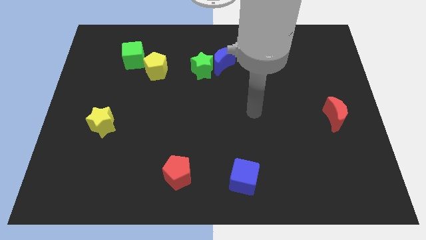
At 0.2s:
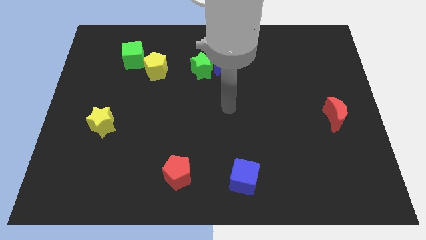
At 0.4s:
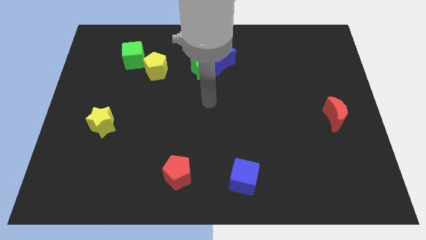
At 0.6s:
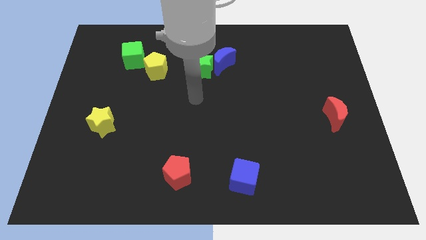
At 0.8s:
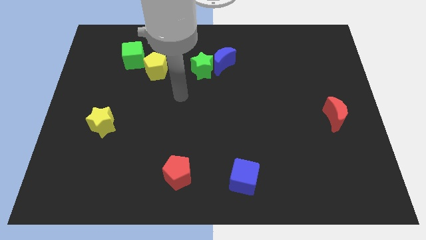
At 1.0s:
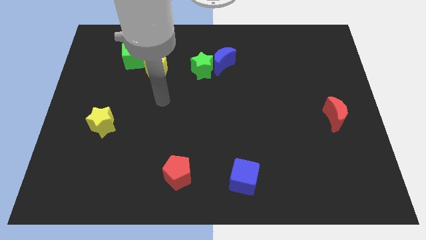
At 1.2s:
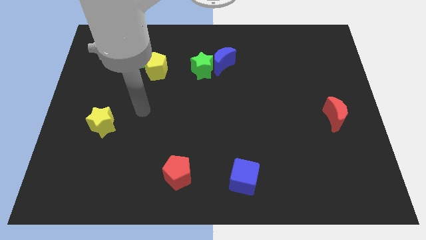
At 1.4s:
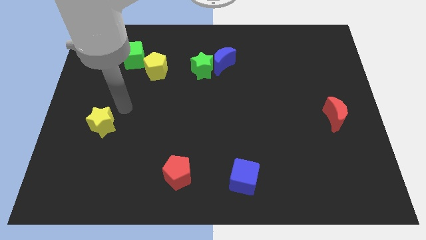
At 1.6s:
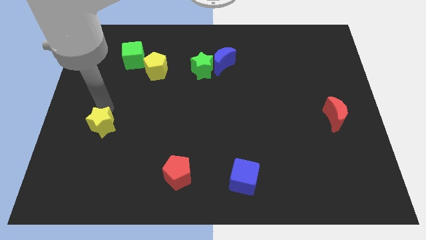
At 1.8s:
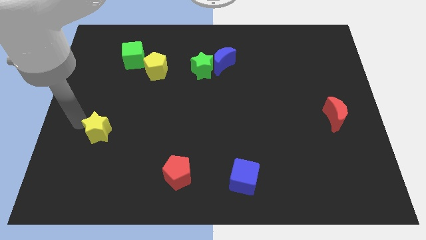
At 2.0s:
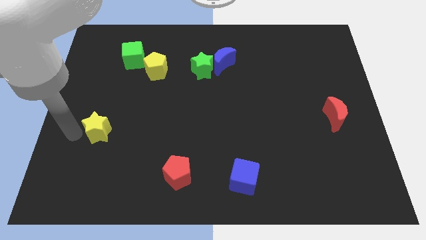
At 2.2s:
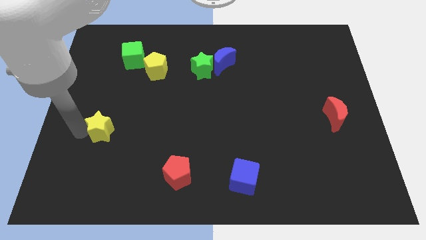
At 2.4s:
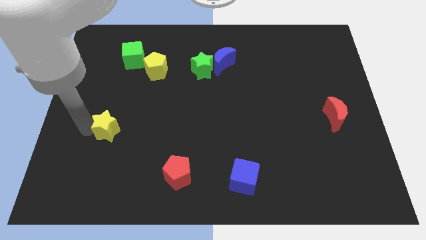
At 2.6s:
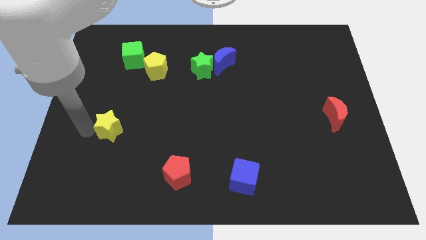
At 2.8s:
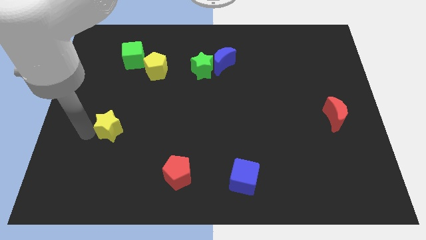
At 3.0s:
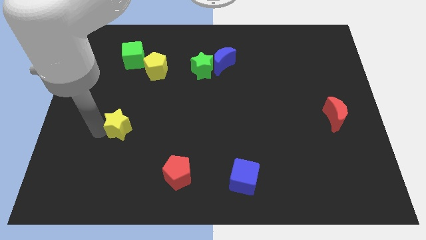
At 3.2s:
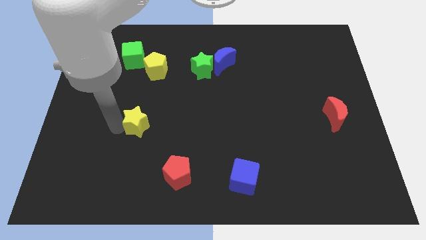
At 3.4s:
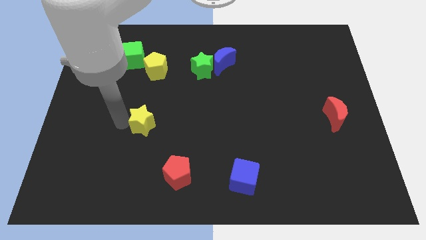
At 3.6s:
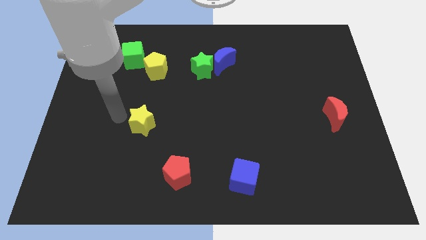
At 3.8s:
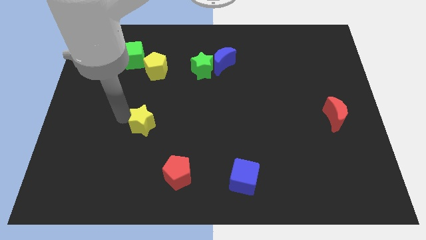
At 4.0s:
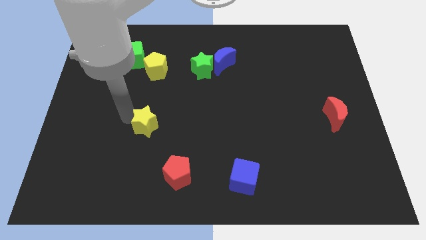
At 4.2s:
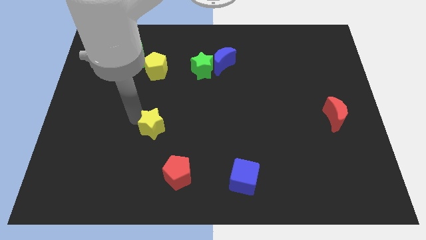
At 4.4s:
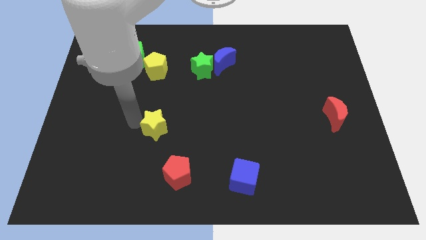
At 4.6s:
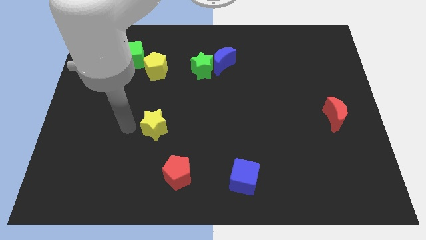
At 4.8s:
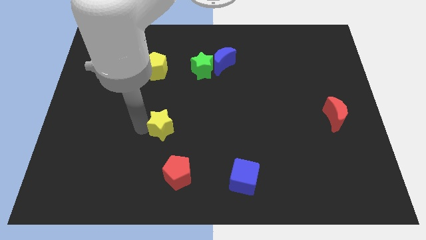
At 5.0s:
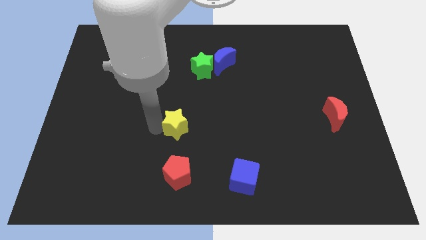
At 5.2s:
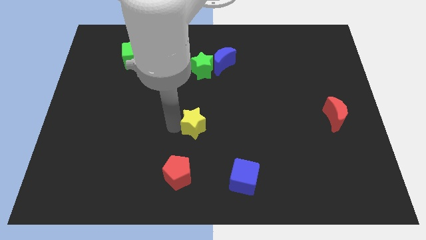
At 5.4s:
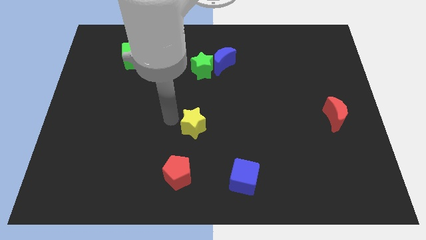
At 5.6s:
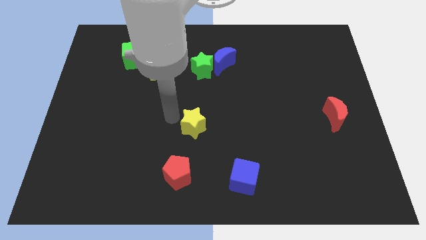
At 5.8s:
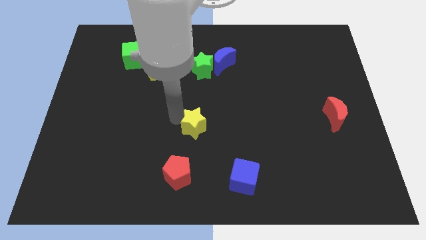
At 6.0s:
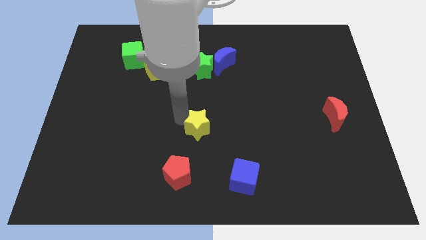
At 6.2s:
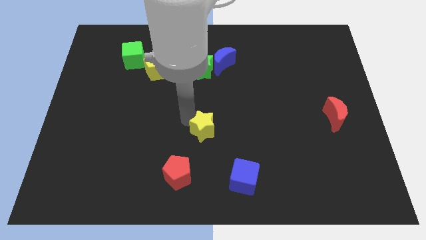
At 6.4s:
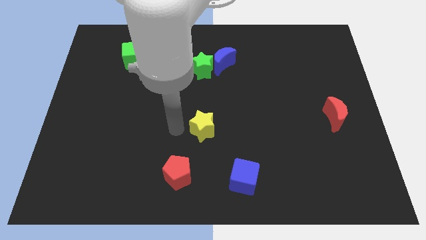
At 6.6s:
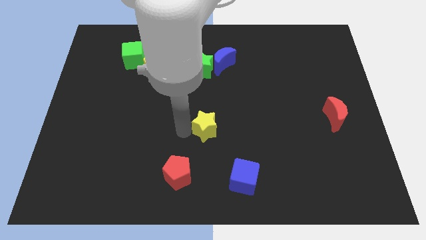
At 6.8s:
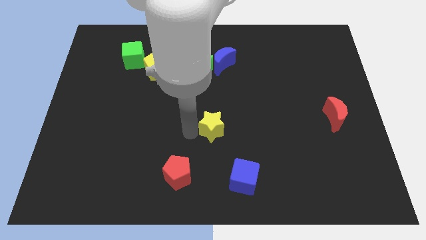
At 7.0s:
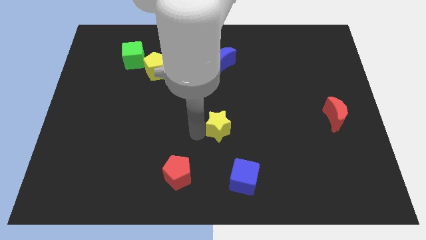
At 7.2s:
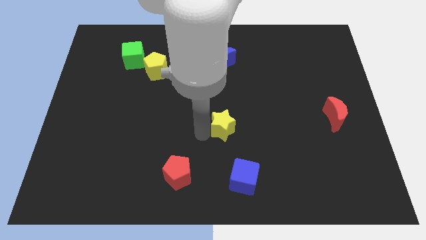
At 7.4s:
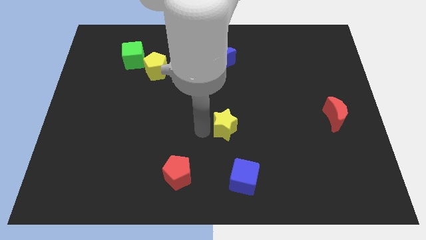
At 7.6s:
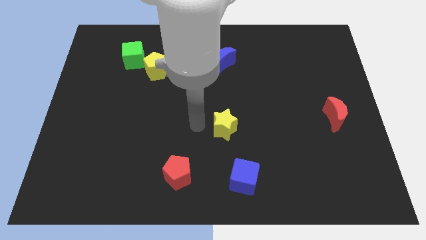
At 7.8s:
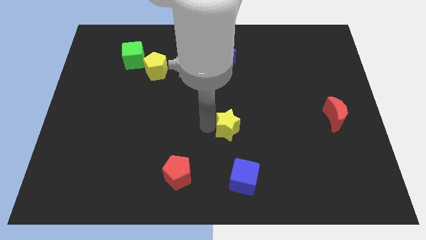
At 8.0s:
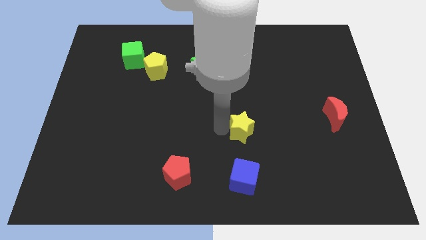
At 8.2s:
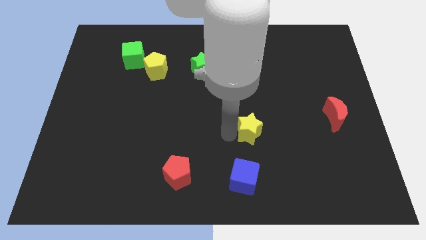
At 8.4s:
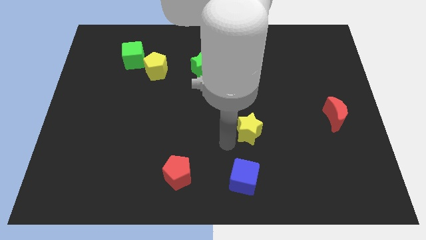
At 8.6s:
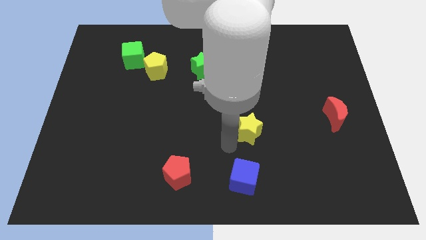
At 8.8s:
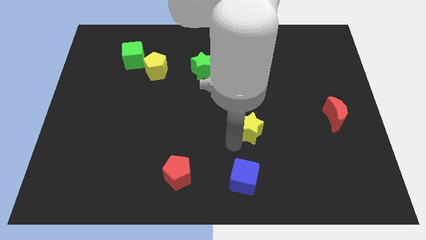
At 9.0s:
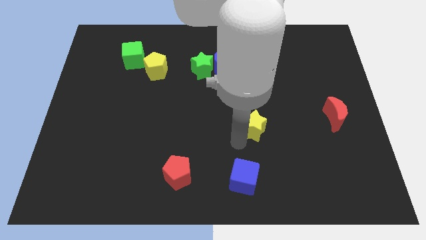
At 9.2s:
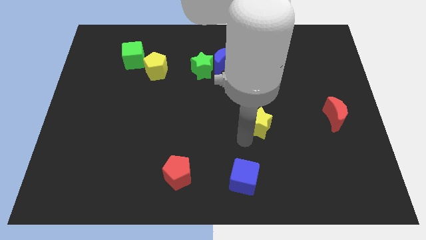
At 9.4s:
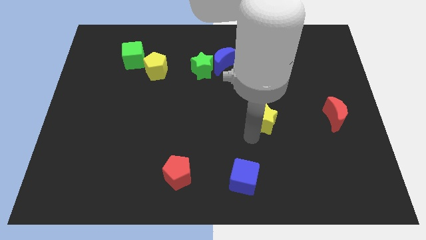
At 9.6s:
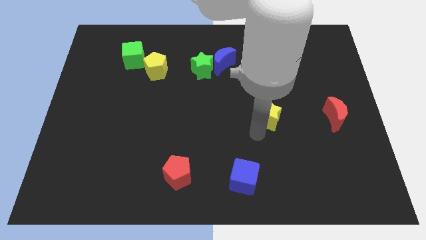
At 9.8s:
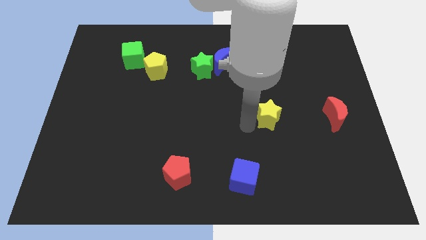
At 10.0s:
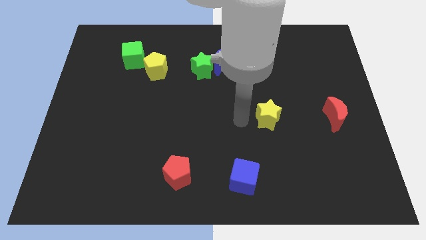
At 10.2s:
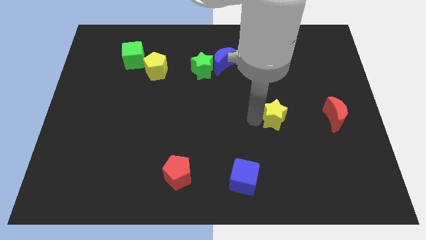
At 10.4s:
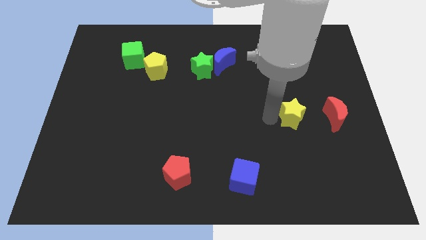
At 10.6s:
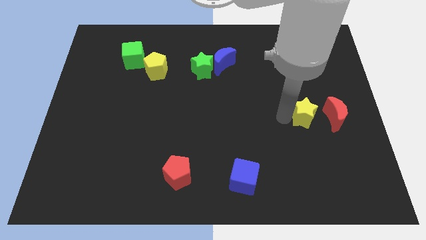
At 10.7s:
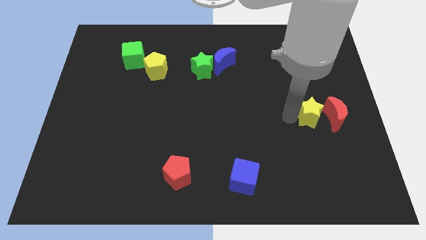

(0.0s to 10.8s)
move the yellow star close to the red moon

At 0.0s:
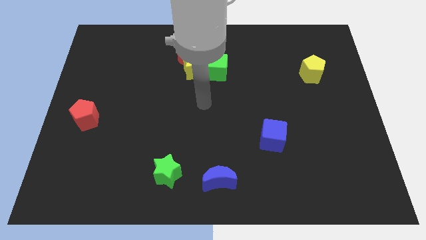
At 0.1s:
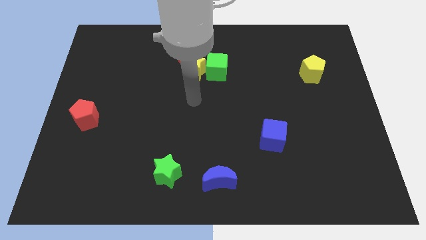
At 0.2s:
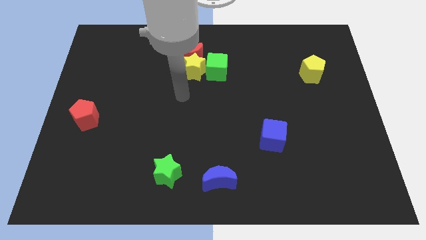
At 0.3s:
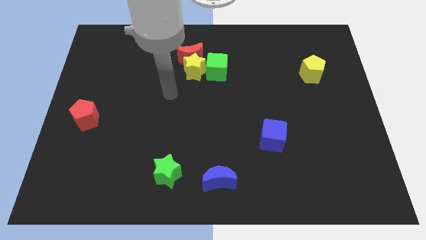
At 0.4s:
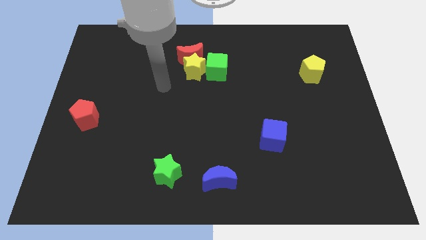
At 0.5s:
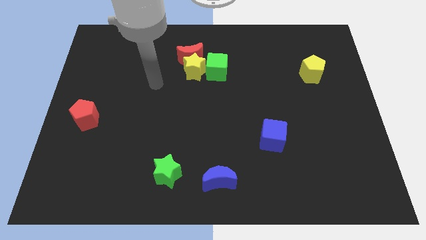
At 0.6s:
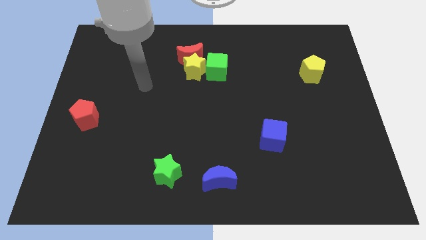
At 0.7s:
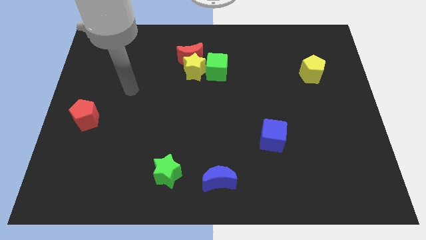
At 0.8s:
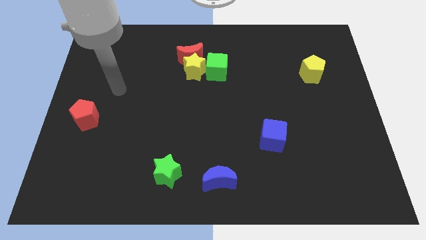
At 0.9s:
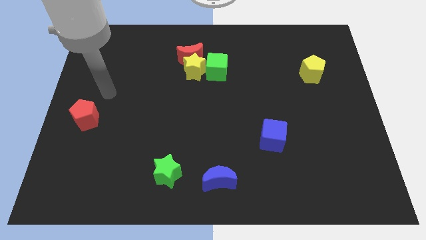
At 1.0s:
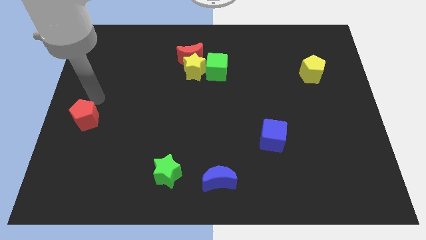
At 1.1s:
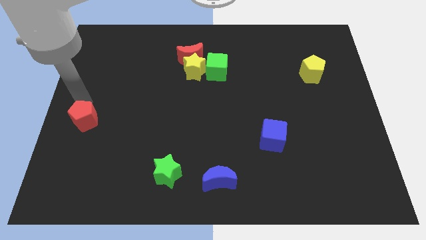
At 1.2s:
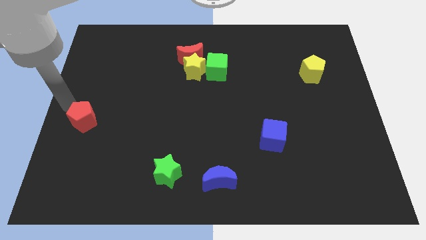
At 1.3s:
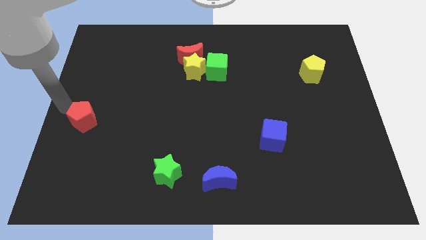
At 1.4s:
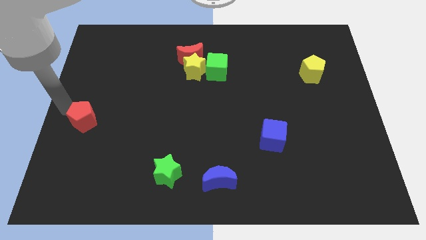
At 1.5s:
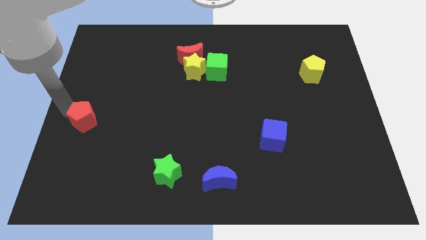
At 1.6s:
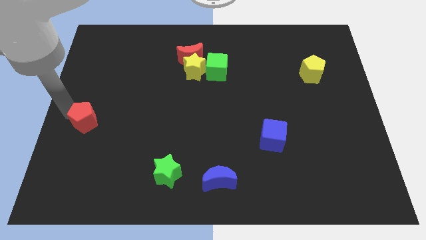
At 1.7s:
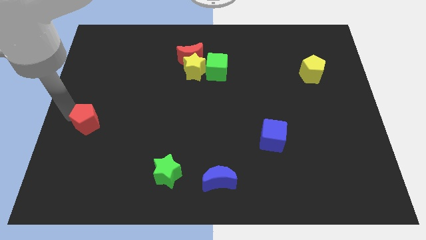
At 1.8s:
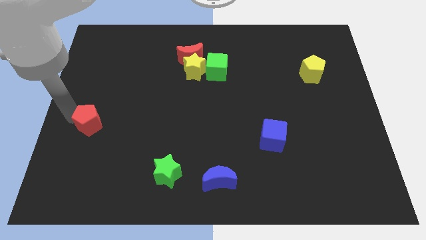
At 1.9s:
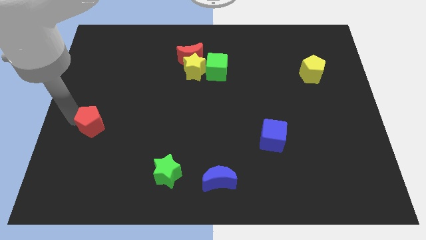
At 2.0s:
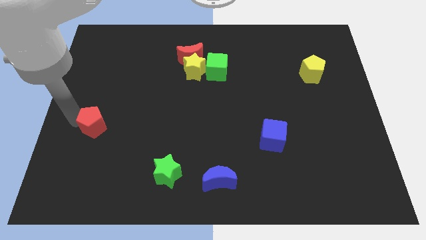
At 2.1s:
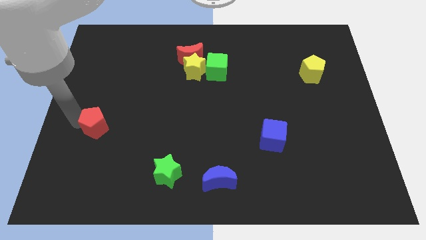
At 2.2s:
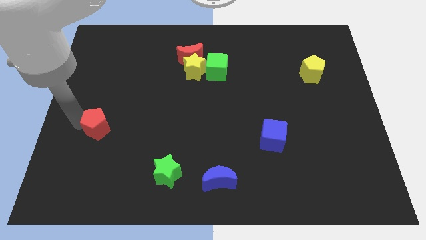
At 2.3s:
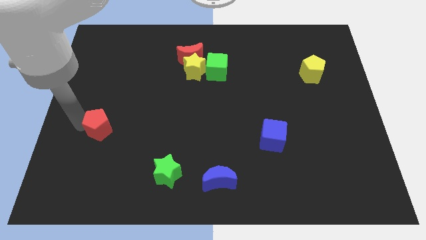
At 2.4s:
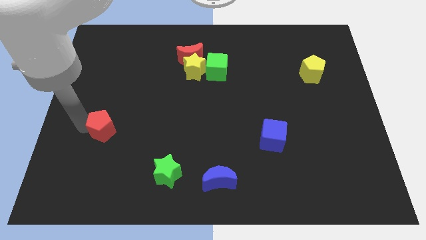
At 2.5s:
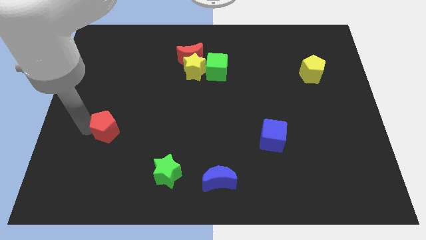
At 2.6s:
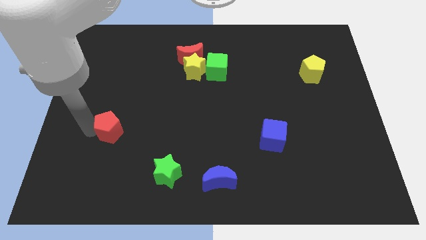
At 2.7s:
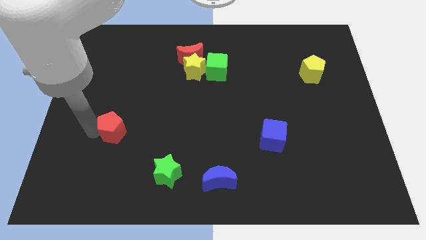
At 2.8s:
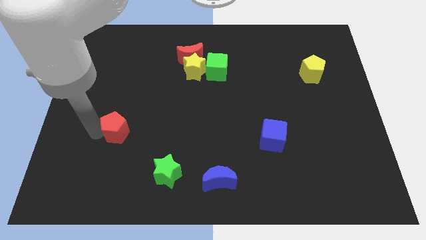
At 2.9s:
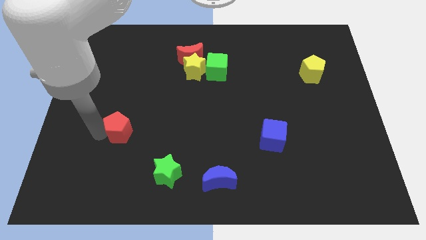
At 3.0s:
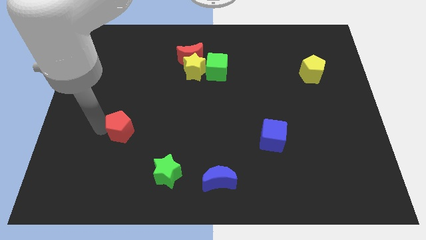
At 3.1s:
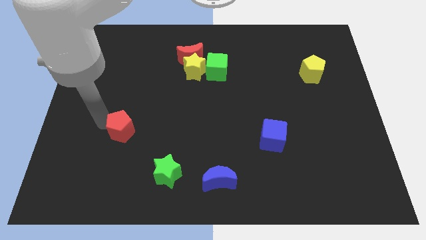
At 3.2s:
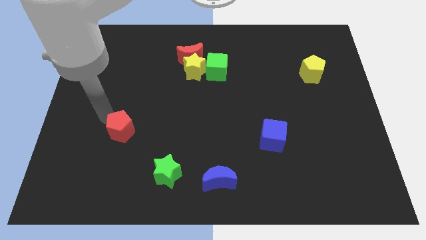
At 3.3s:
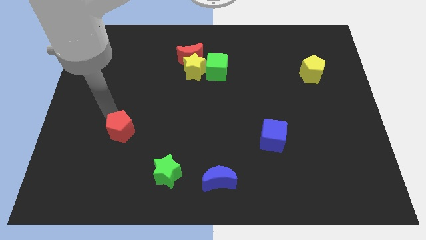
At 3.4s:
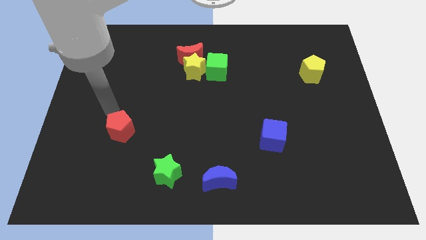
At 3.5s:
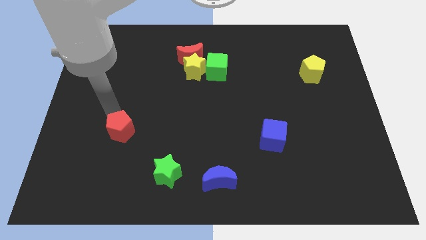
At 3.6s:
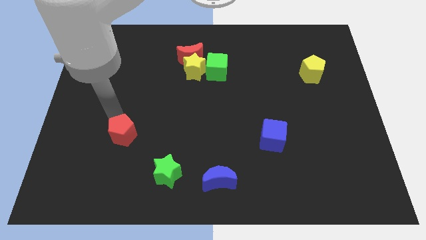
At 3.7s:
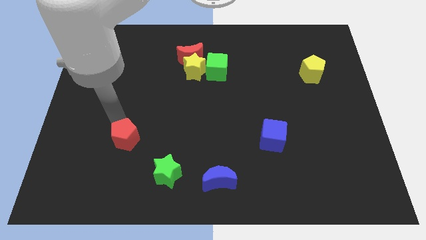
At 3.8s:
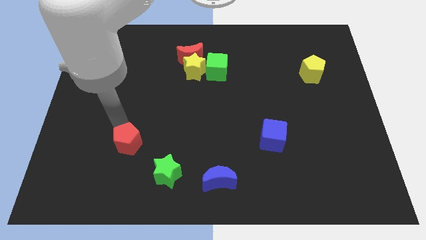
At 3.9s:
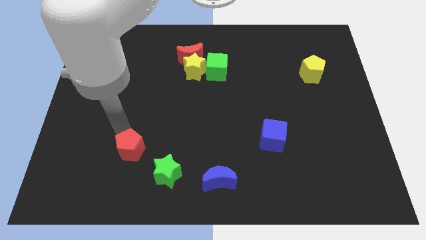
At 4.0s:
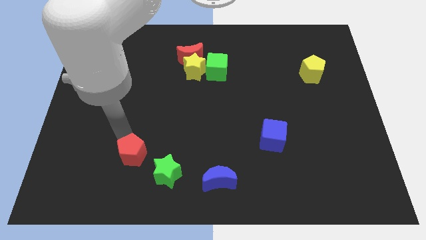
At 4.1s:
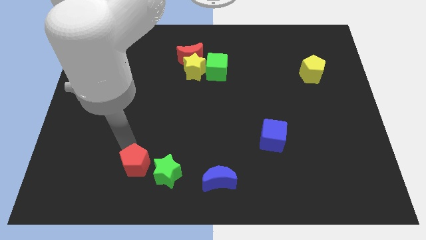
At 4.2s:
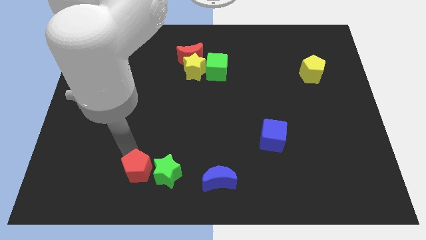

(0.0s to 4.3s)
slide the red pentagon next to the green star
